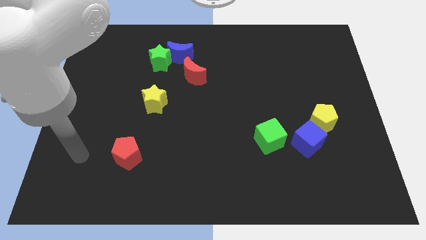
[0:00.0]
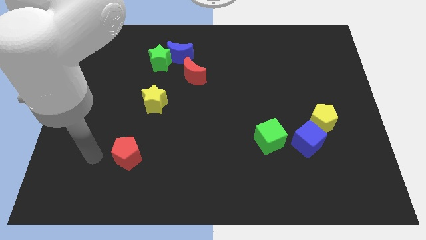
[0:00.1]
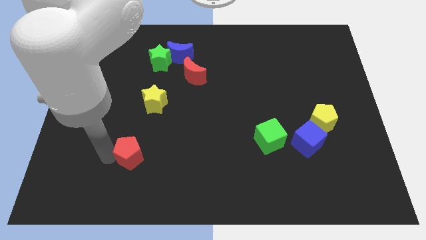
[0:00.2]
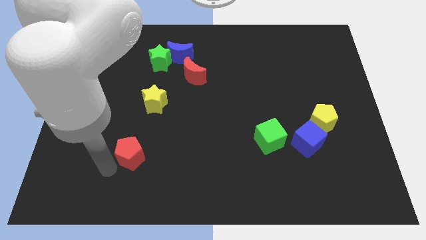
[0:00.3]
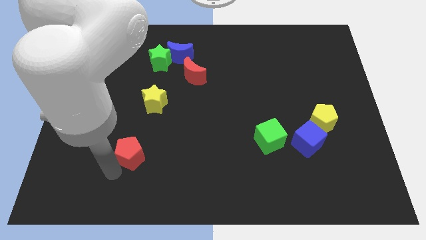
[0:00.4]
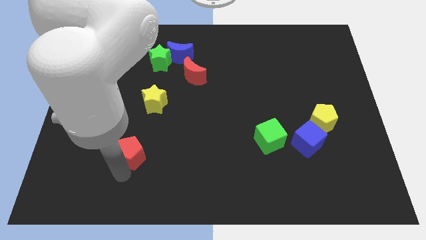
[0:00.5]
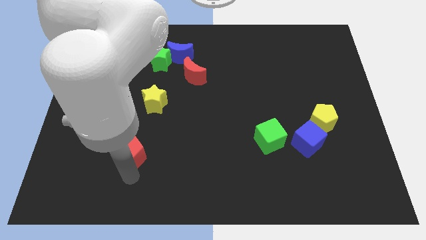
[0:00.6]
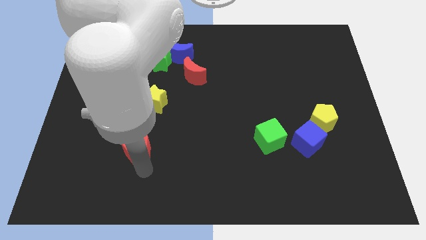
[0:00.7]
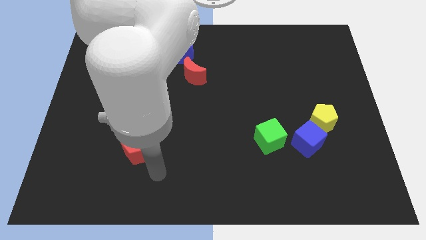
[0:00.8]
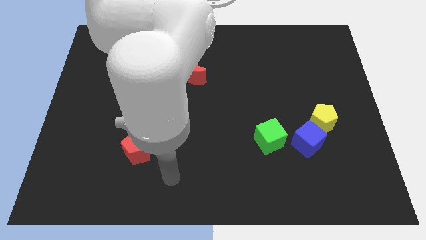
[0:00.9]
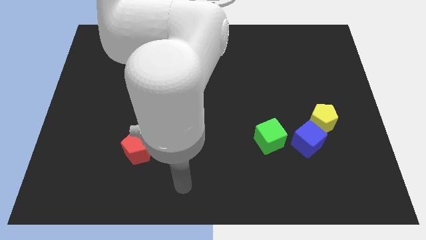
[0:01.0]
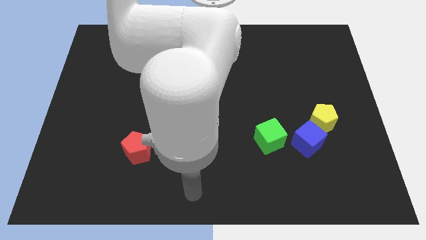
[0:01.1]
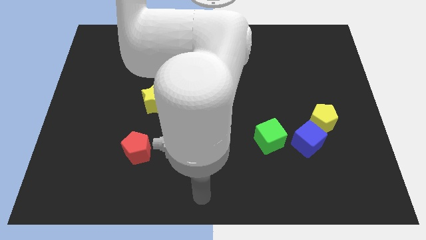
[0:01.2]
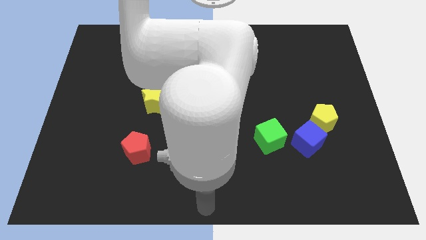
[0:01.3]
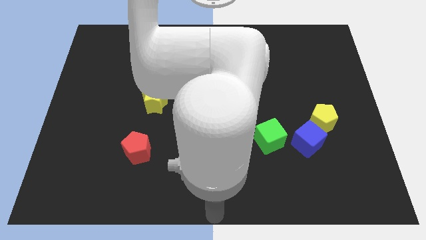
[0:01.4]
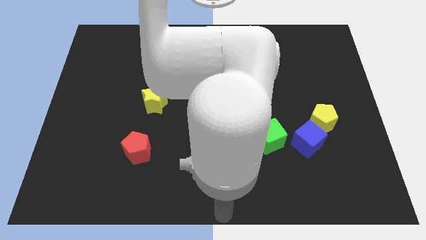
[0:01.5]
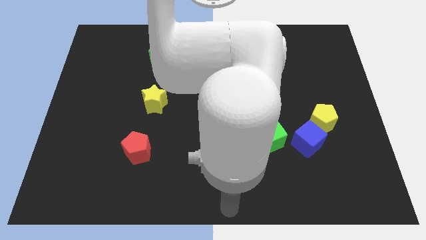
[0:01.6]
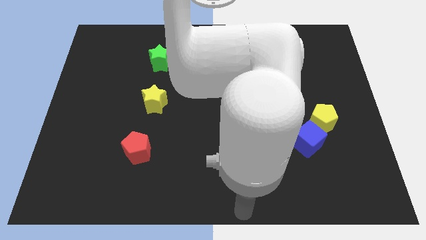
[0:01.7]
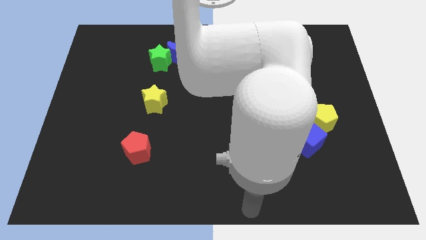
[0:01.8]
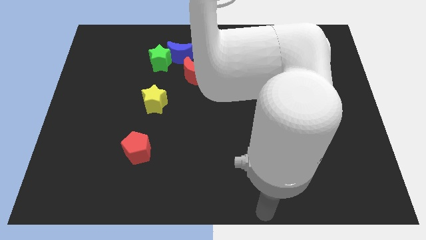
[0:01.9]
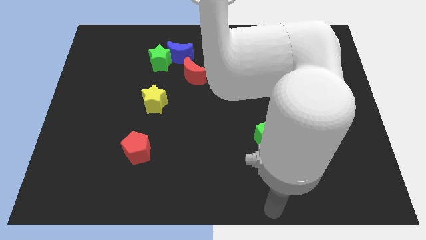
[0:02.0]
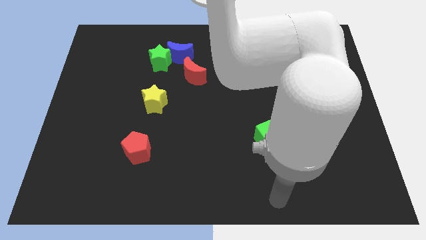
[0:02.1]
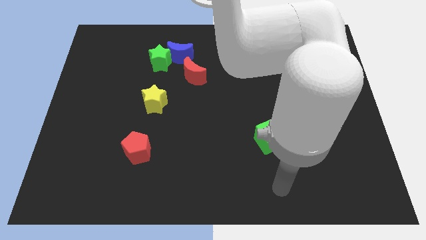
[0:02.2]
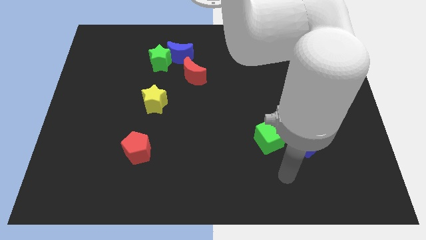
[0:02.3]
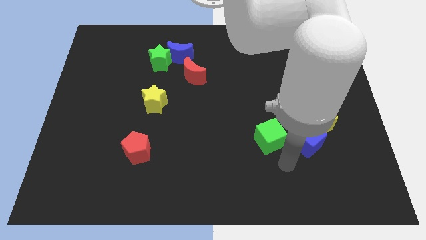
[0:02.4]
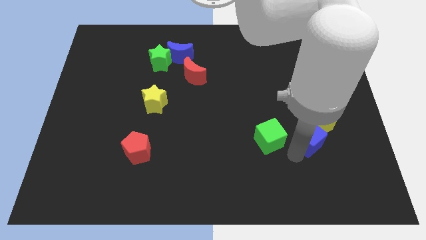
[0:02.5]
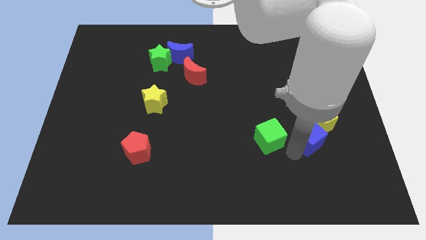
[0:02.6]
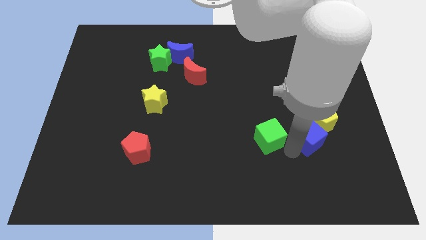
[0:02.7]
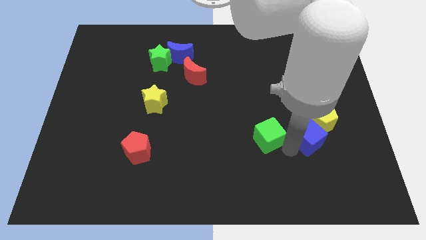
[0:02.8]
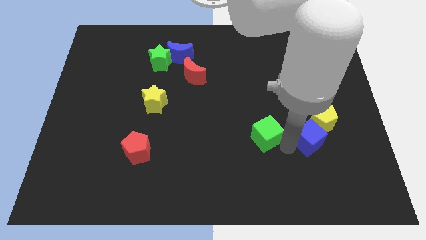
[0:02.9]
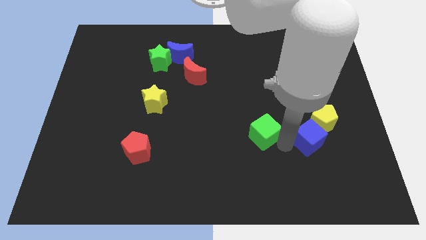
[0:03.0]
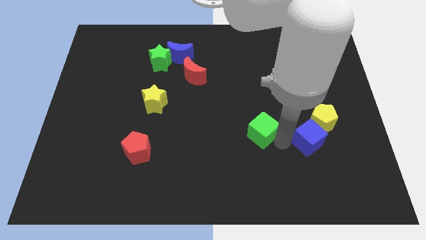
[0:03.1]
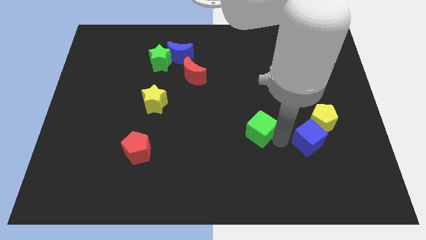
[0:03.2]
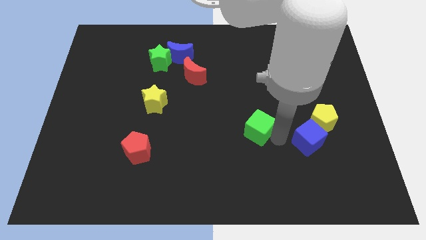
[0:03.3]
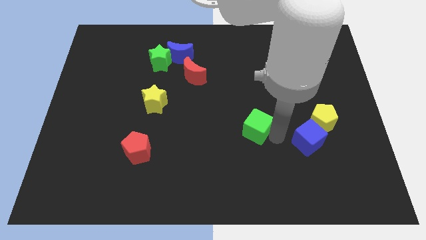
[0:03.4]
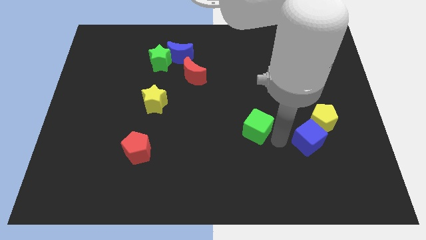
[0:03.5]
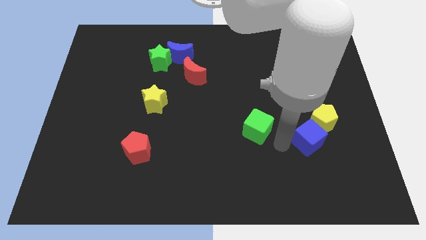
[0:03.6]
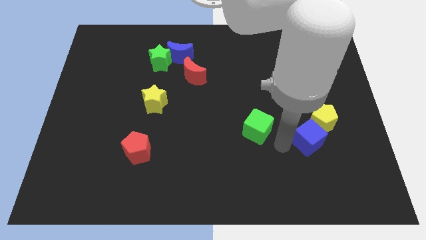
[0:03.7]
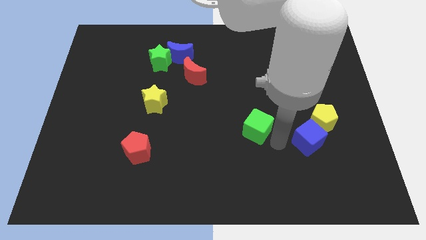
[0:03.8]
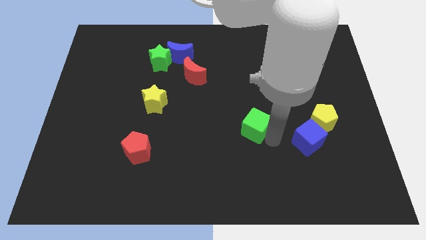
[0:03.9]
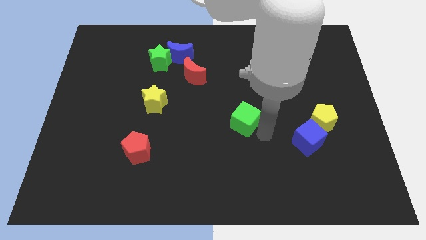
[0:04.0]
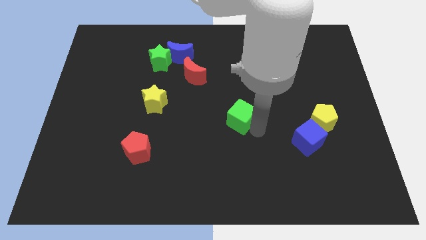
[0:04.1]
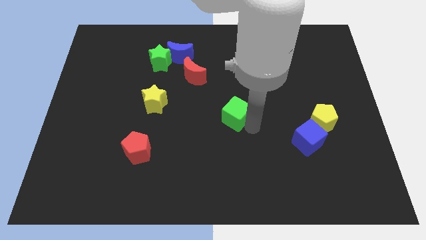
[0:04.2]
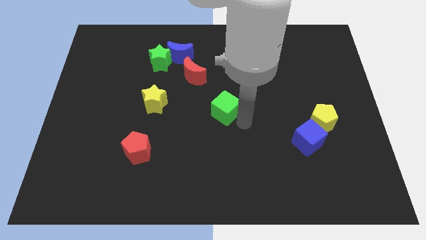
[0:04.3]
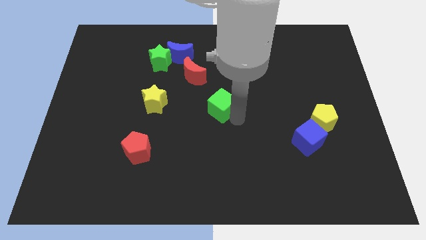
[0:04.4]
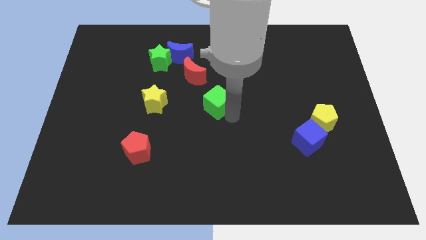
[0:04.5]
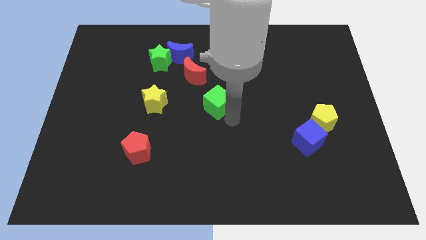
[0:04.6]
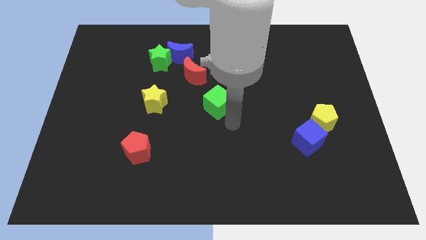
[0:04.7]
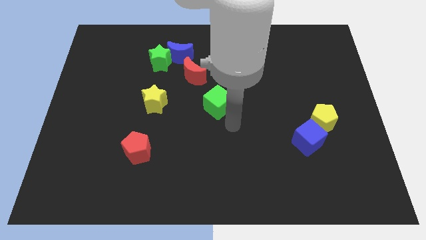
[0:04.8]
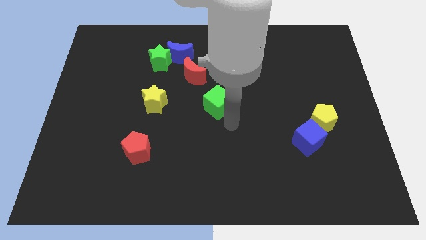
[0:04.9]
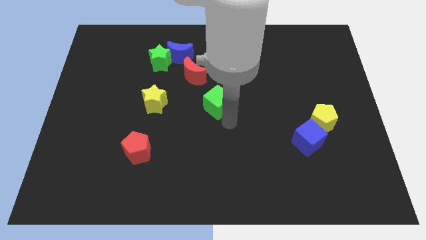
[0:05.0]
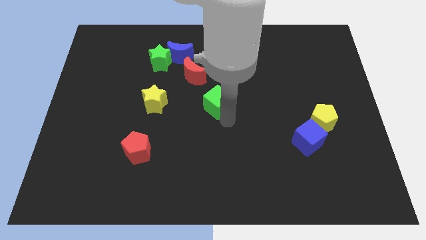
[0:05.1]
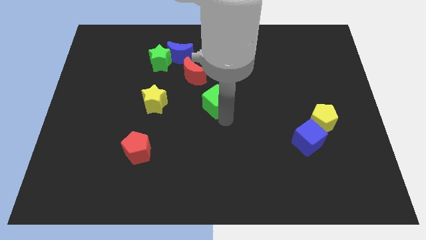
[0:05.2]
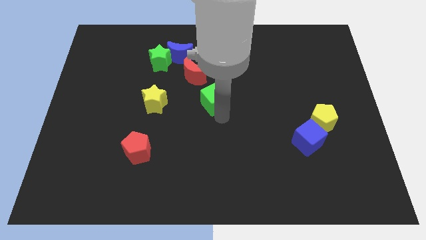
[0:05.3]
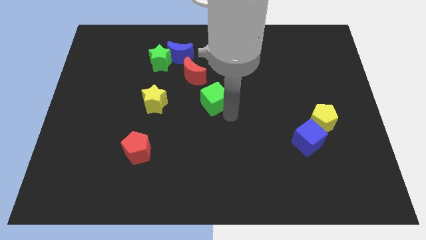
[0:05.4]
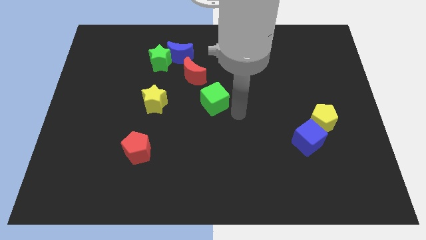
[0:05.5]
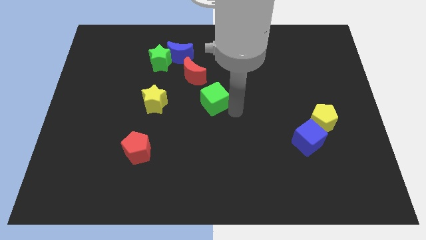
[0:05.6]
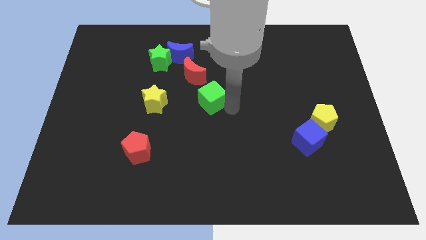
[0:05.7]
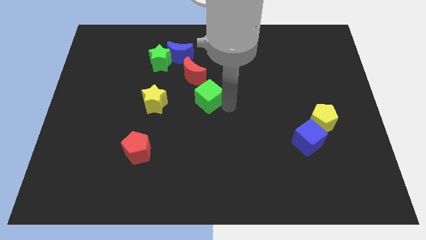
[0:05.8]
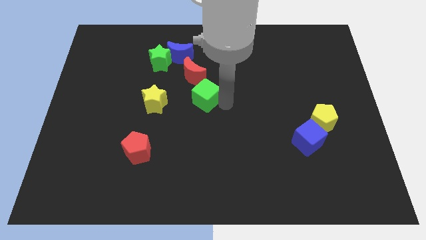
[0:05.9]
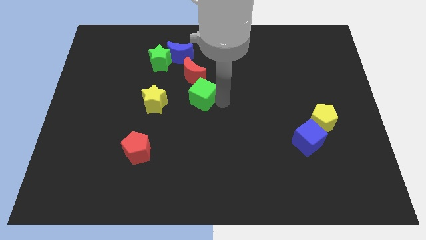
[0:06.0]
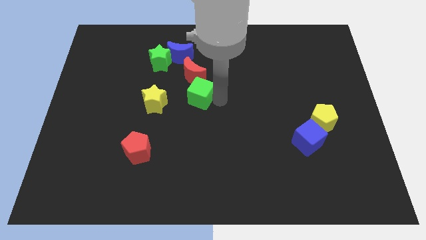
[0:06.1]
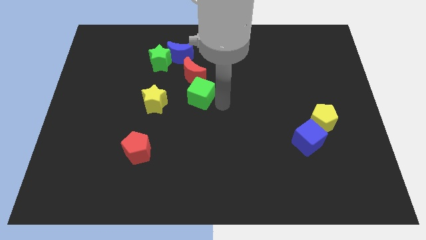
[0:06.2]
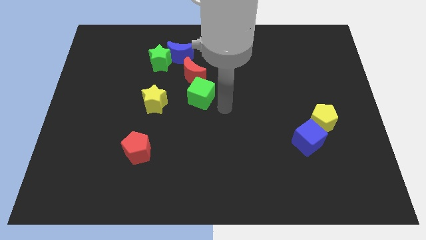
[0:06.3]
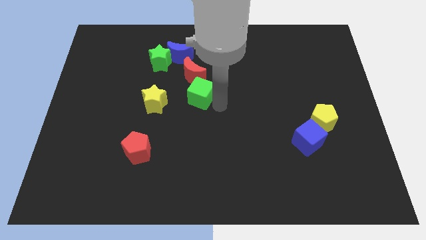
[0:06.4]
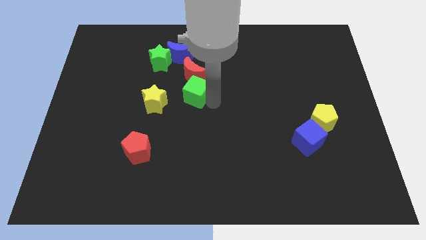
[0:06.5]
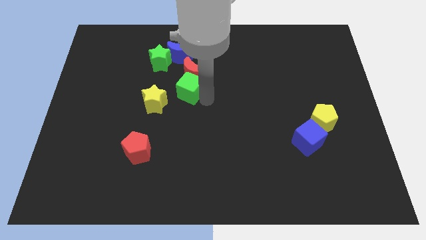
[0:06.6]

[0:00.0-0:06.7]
move the green cube to the top right of the yellow star
